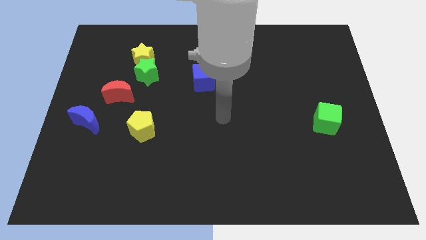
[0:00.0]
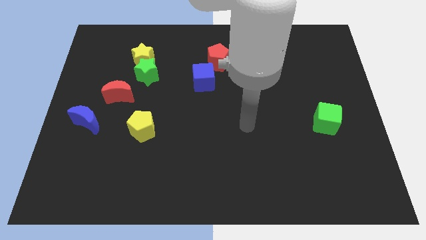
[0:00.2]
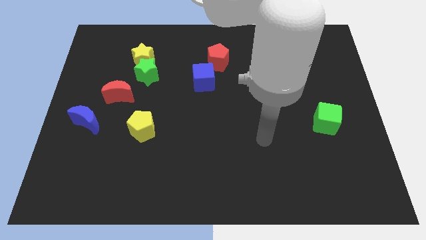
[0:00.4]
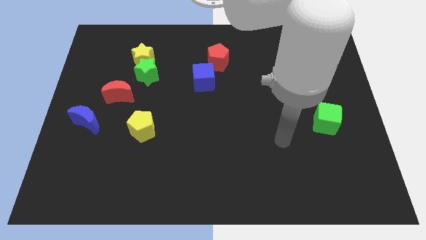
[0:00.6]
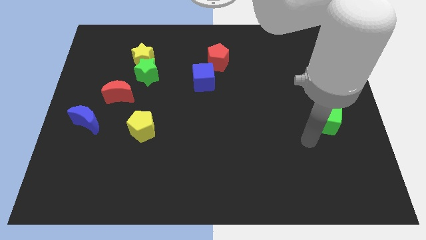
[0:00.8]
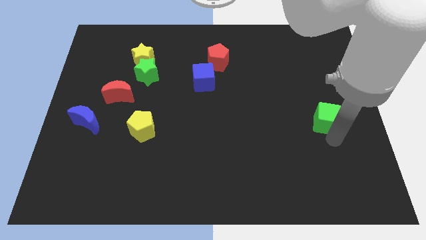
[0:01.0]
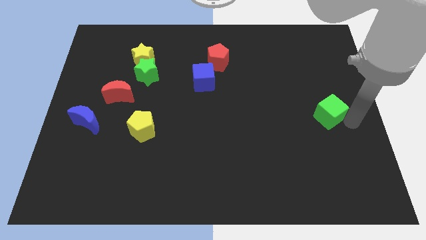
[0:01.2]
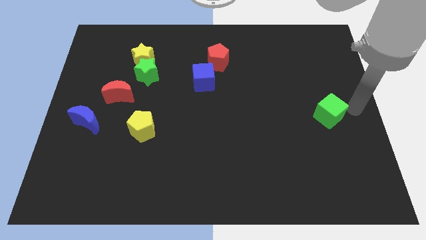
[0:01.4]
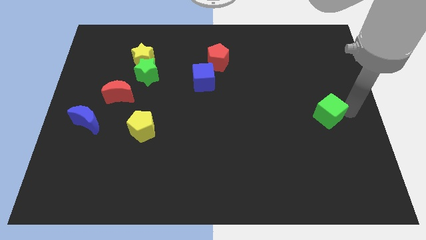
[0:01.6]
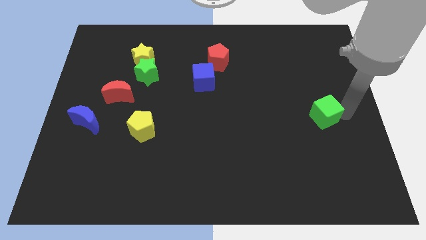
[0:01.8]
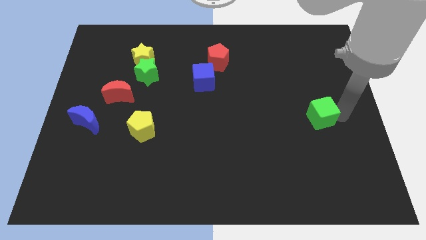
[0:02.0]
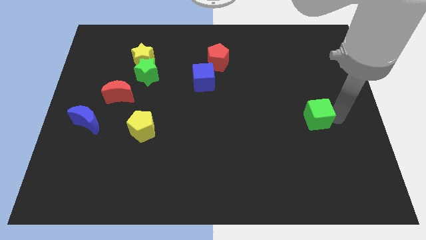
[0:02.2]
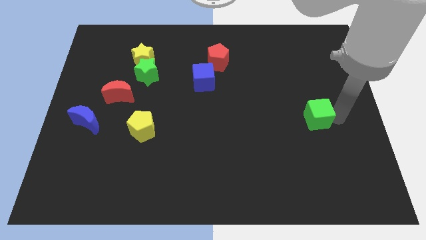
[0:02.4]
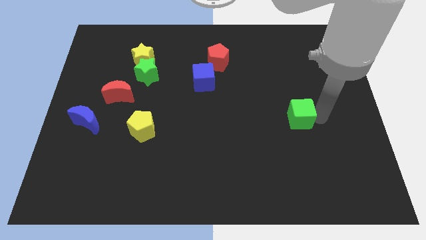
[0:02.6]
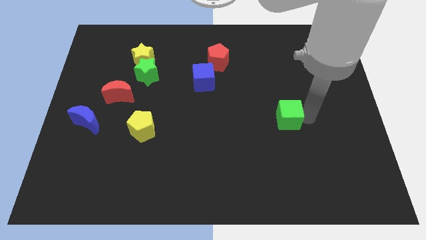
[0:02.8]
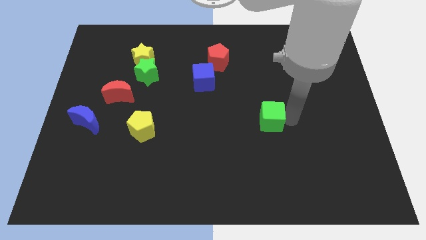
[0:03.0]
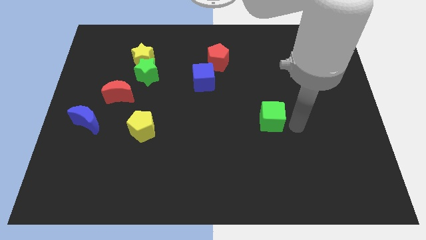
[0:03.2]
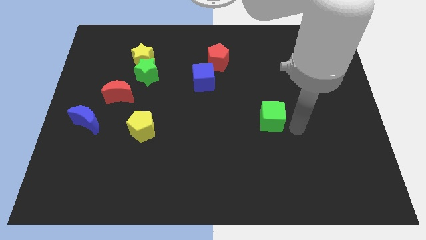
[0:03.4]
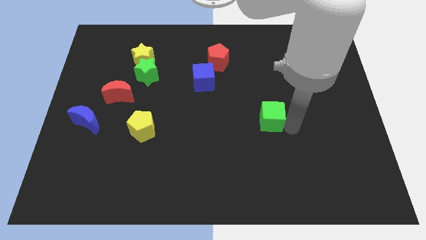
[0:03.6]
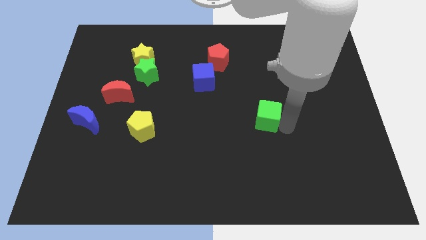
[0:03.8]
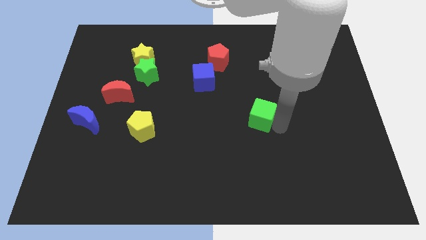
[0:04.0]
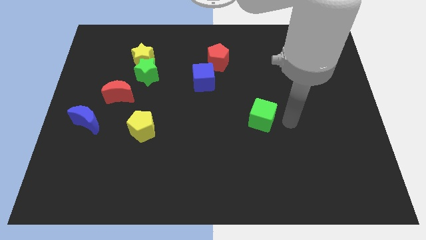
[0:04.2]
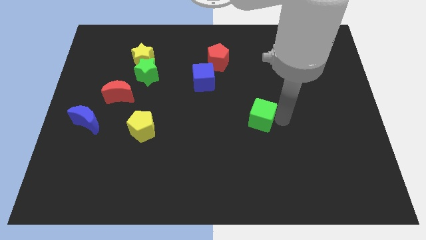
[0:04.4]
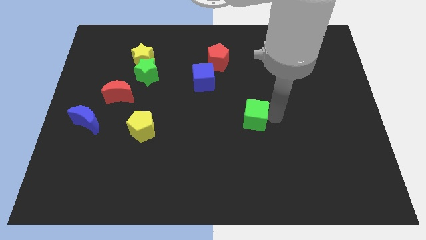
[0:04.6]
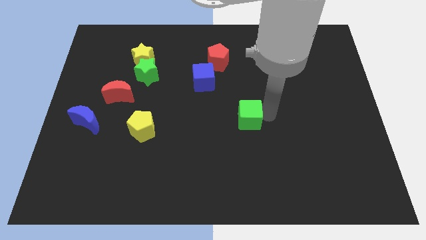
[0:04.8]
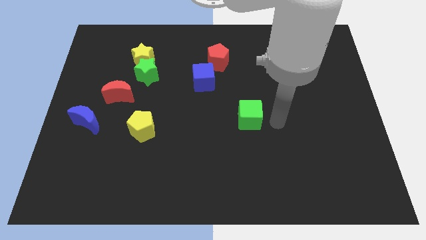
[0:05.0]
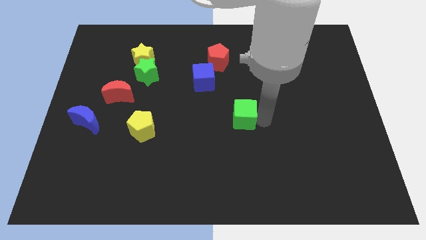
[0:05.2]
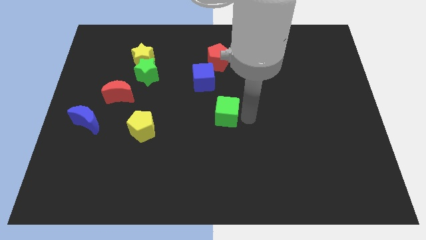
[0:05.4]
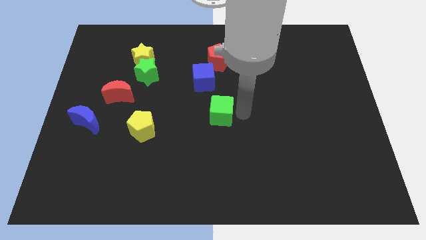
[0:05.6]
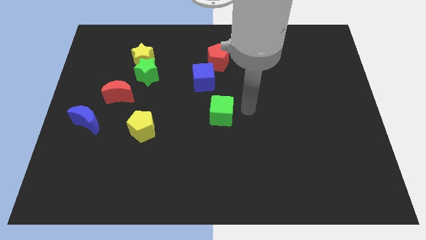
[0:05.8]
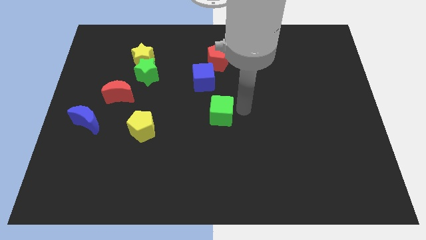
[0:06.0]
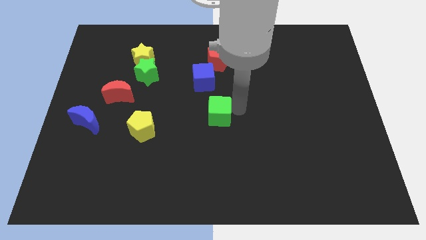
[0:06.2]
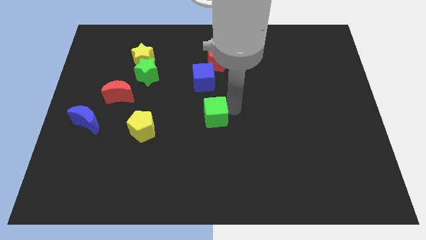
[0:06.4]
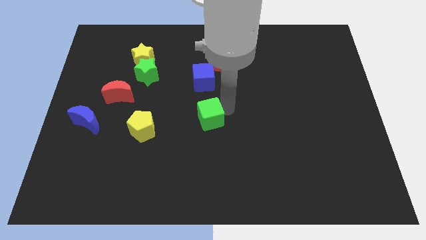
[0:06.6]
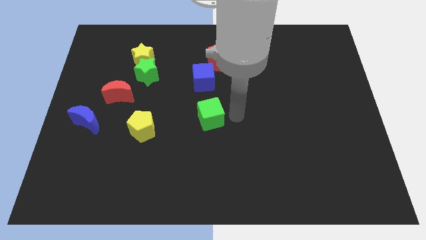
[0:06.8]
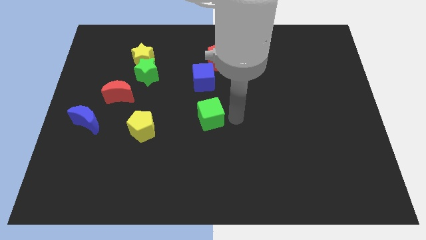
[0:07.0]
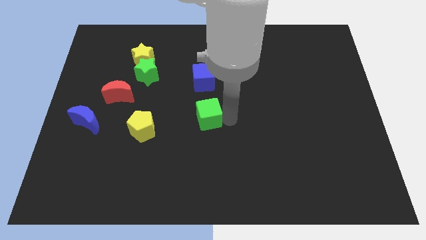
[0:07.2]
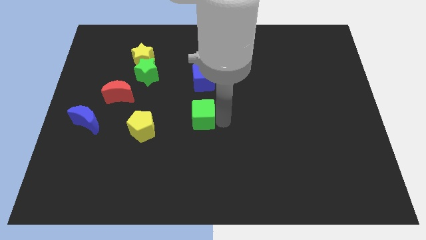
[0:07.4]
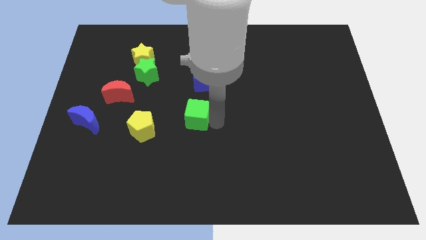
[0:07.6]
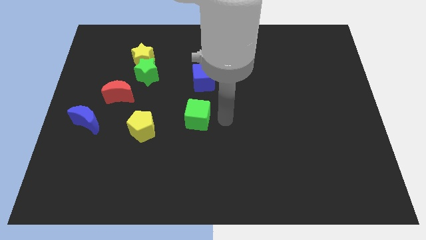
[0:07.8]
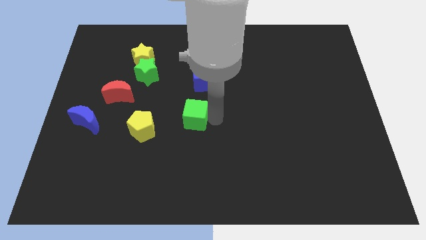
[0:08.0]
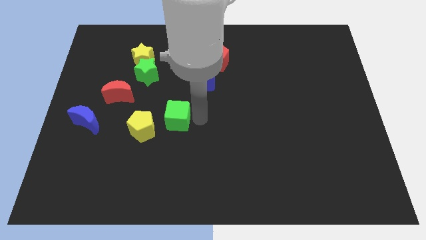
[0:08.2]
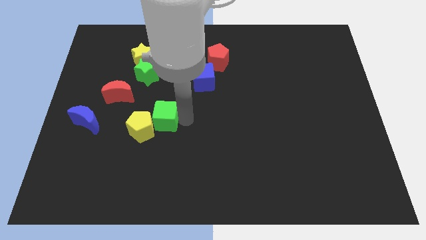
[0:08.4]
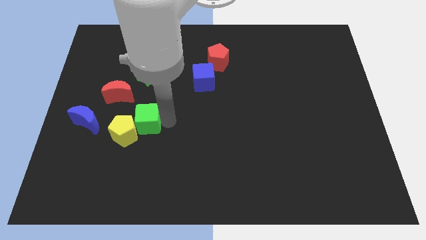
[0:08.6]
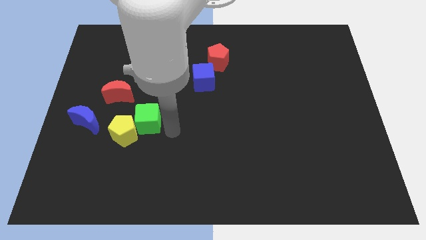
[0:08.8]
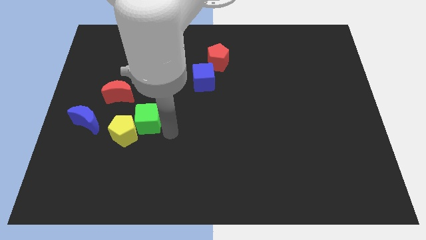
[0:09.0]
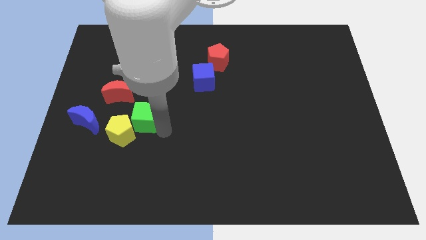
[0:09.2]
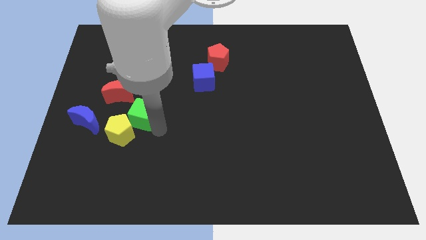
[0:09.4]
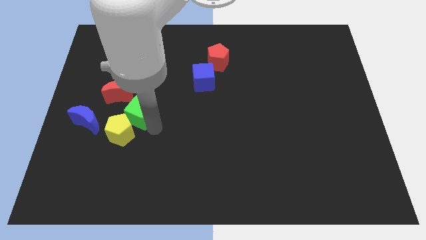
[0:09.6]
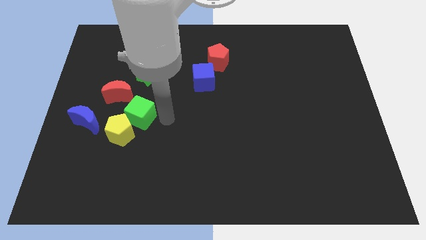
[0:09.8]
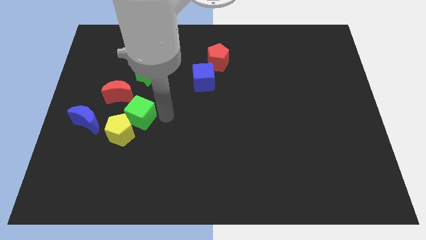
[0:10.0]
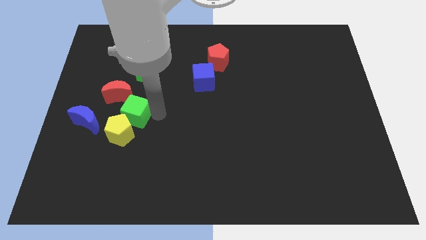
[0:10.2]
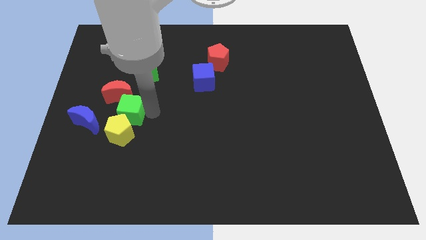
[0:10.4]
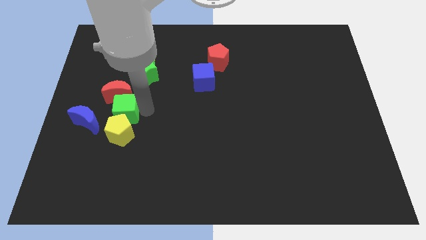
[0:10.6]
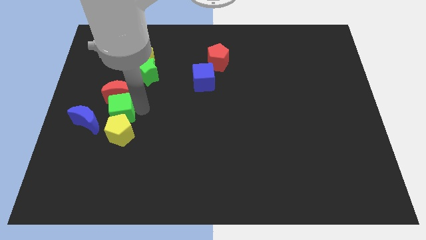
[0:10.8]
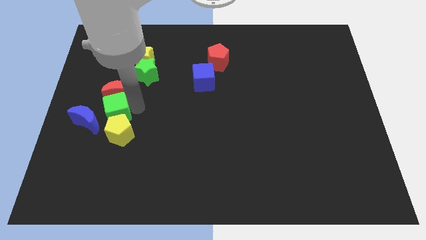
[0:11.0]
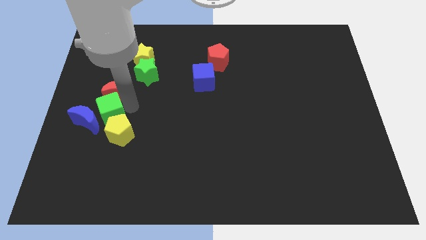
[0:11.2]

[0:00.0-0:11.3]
slide the green cube close to the blue moon

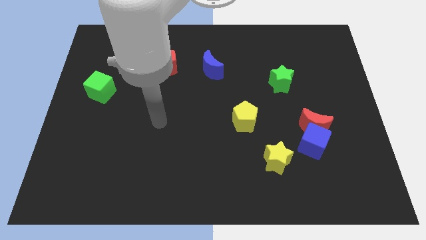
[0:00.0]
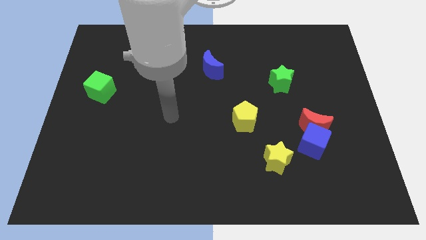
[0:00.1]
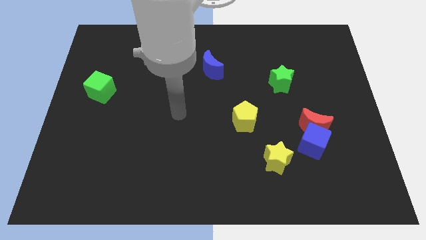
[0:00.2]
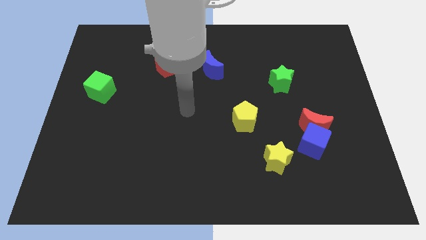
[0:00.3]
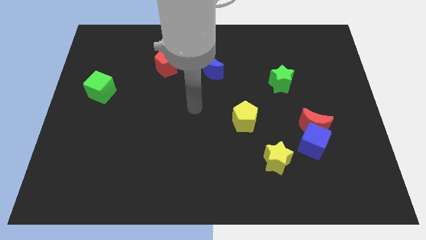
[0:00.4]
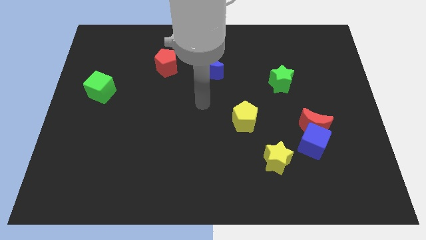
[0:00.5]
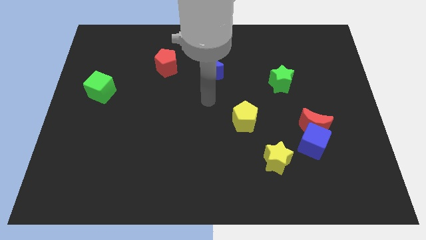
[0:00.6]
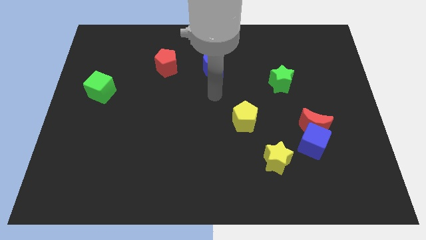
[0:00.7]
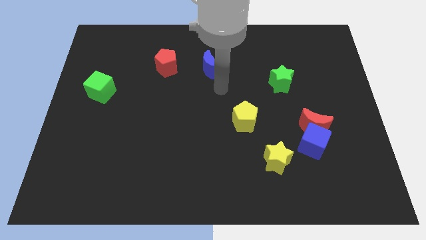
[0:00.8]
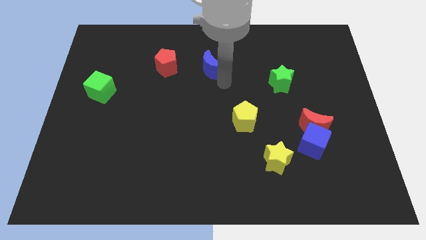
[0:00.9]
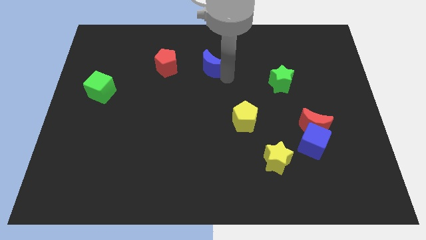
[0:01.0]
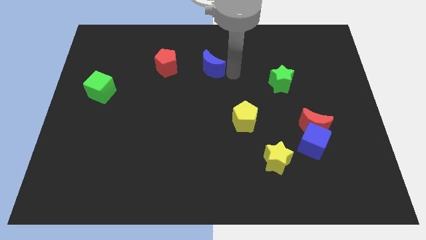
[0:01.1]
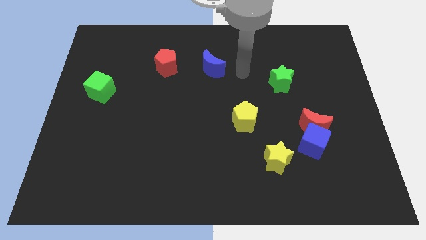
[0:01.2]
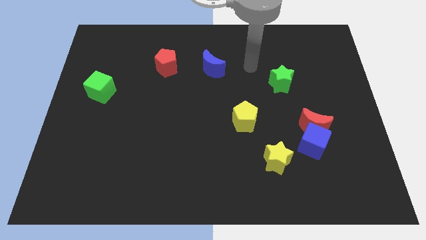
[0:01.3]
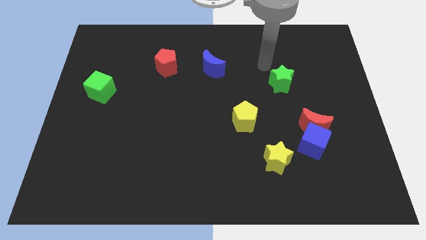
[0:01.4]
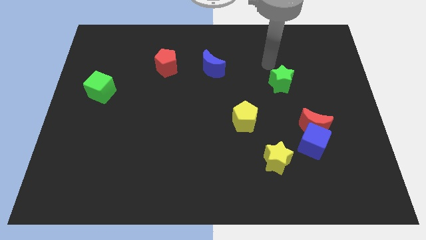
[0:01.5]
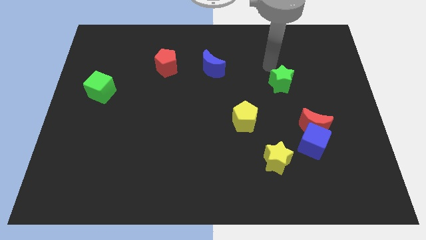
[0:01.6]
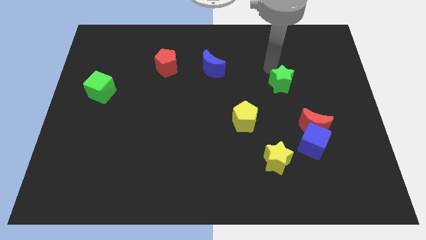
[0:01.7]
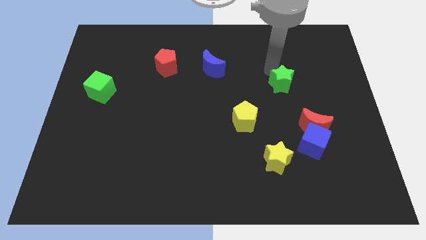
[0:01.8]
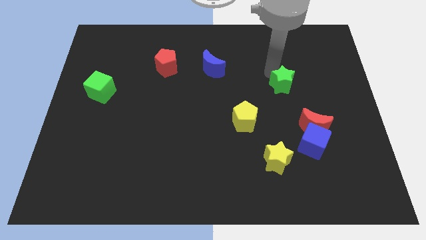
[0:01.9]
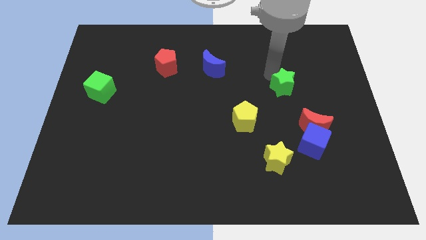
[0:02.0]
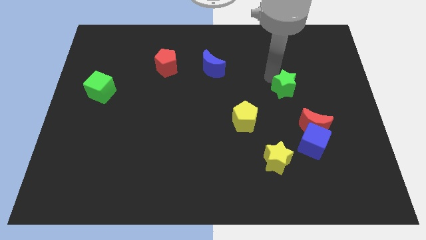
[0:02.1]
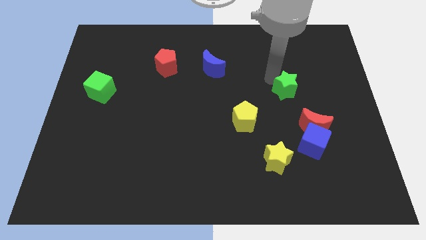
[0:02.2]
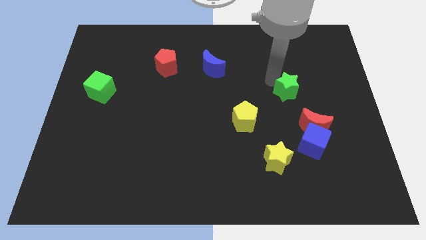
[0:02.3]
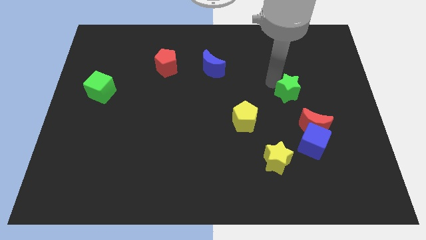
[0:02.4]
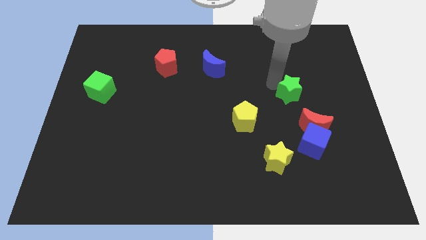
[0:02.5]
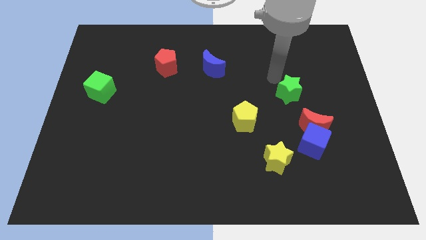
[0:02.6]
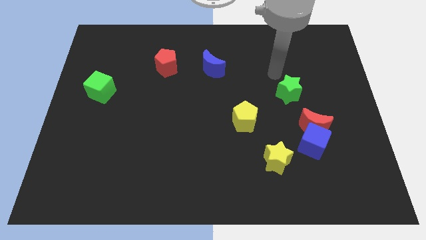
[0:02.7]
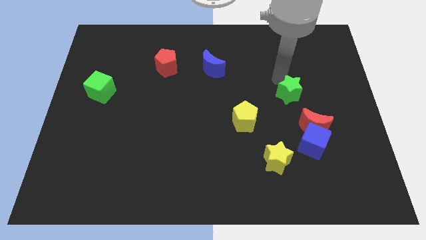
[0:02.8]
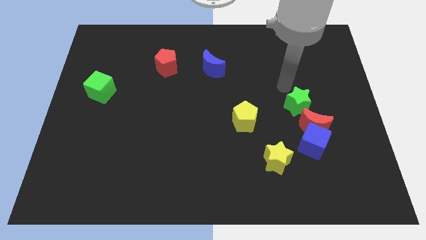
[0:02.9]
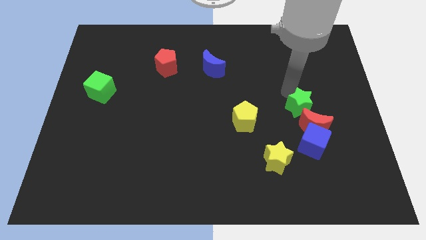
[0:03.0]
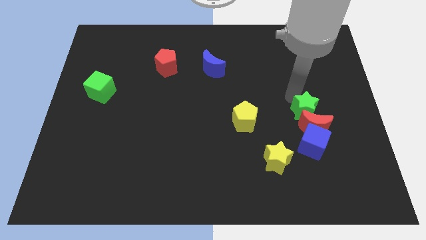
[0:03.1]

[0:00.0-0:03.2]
move the green star to the red moon
